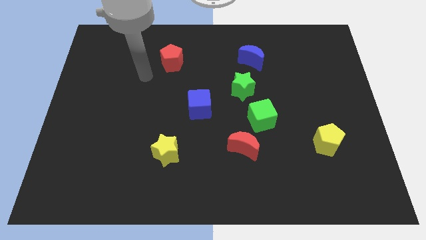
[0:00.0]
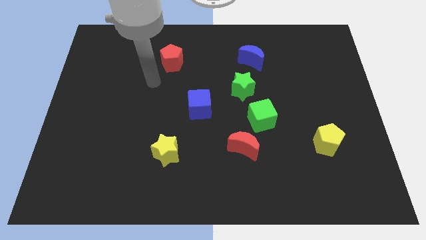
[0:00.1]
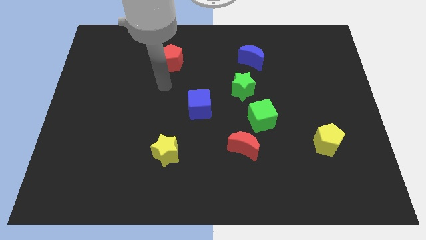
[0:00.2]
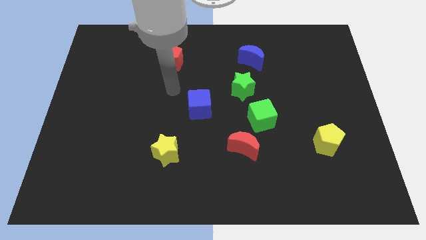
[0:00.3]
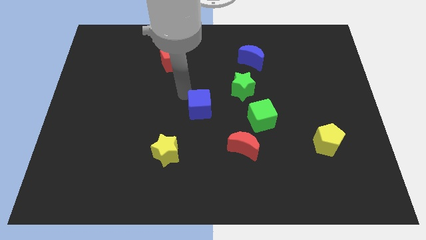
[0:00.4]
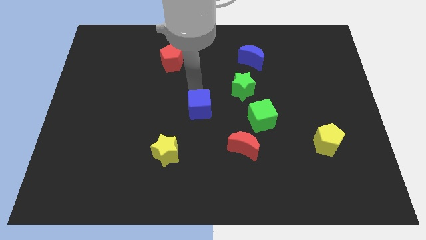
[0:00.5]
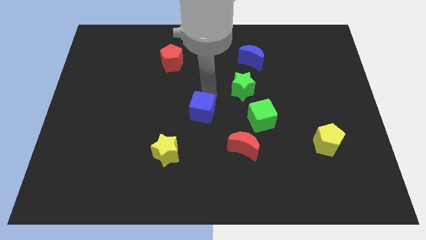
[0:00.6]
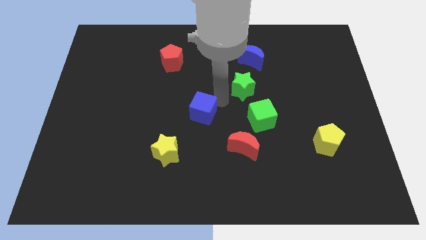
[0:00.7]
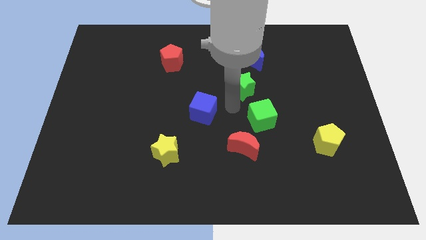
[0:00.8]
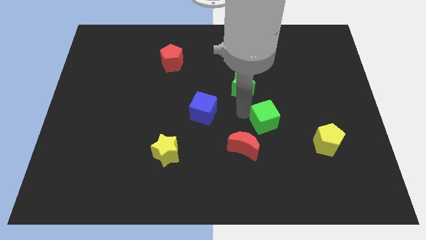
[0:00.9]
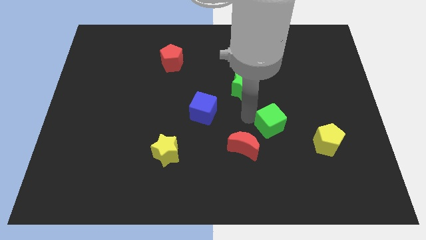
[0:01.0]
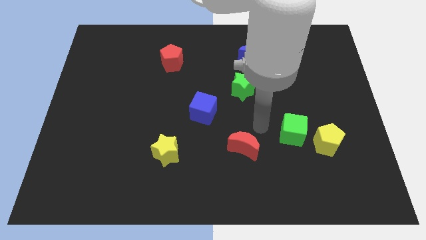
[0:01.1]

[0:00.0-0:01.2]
separate the red moon from the green cube

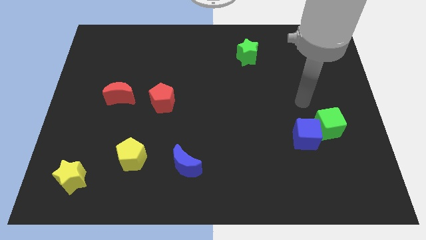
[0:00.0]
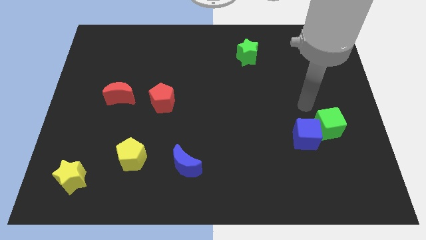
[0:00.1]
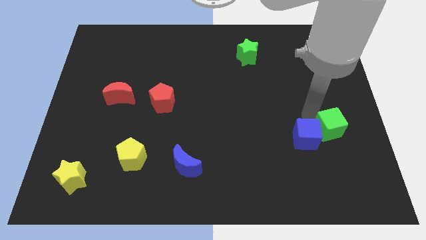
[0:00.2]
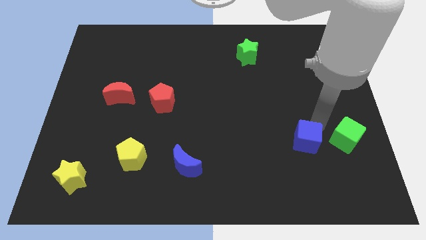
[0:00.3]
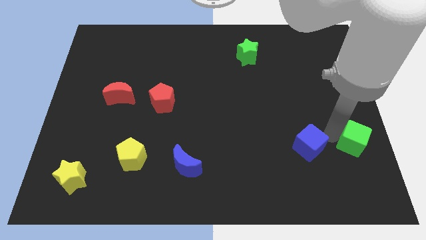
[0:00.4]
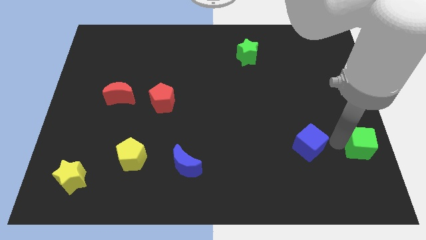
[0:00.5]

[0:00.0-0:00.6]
pull the blue cube apart from the green cube

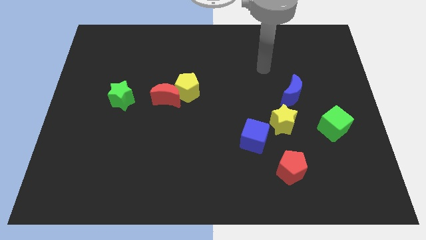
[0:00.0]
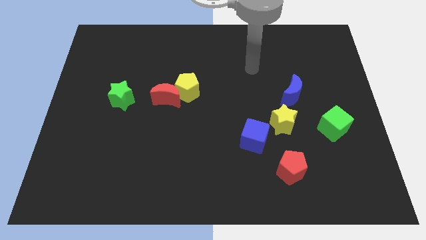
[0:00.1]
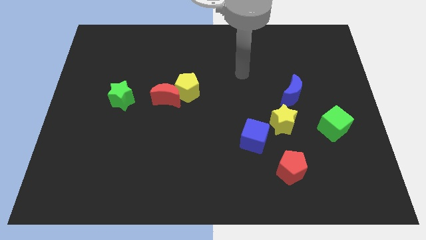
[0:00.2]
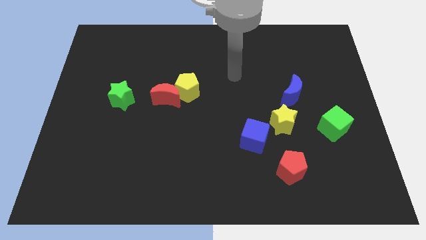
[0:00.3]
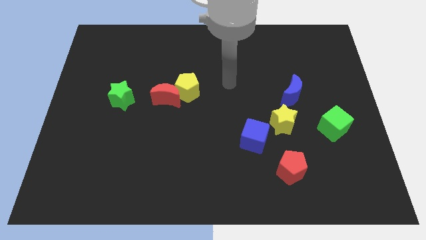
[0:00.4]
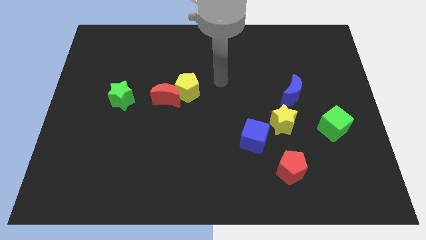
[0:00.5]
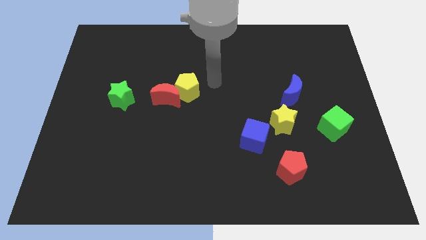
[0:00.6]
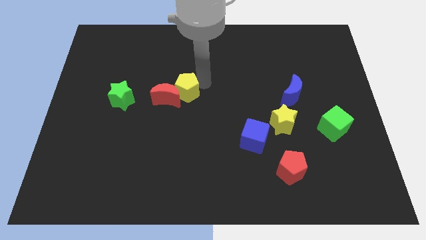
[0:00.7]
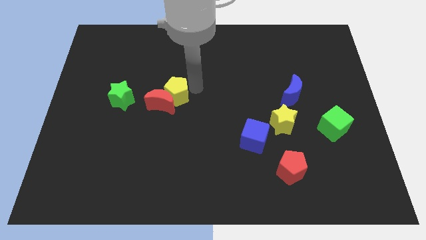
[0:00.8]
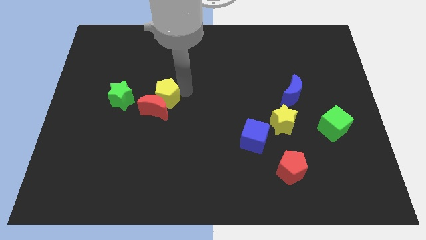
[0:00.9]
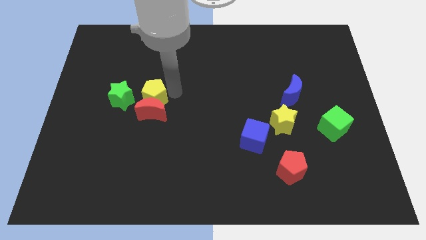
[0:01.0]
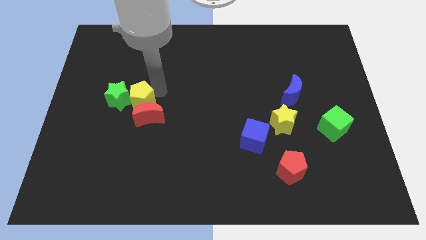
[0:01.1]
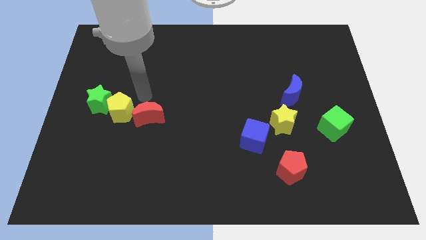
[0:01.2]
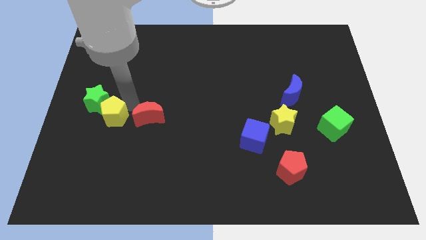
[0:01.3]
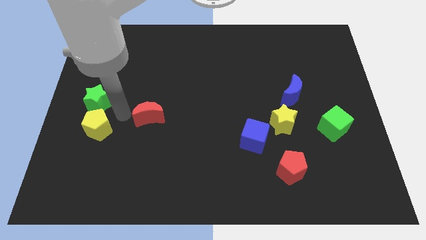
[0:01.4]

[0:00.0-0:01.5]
pull the red moon apart from the yellow pentagon

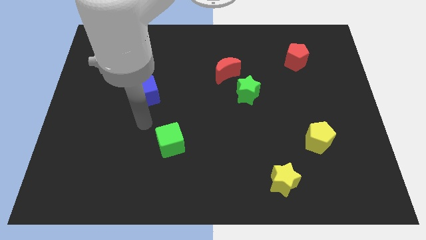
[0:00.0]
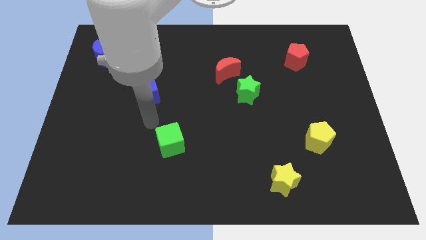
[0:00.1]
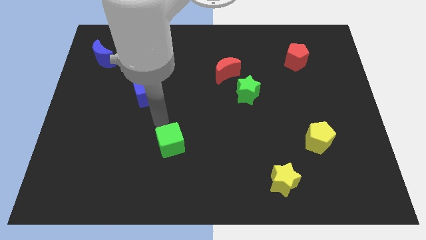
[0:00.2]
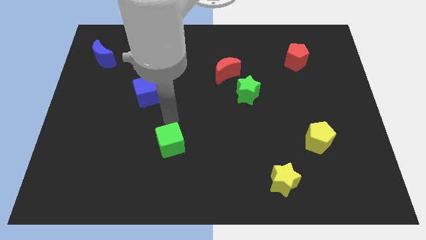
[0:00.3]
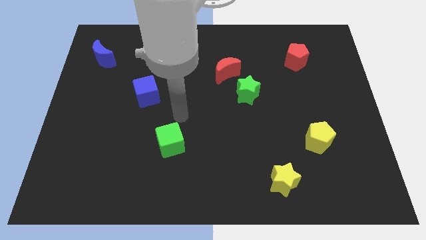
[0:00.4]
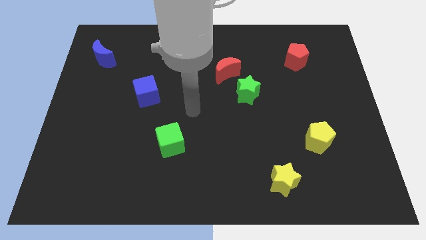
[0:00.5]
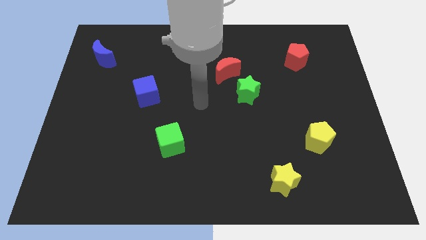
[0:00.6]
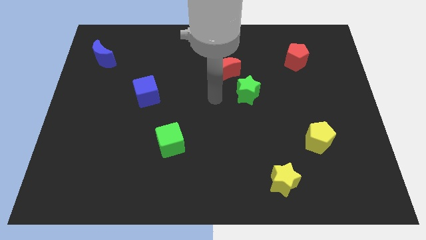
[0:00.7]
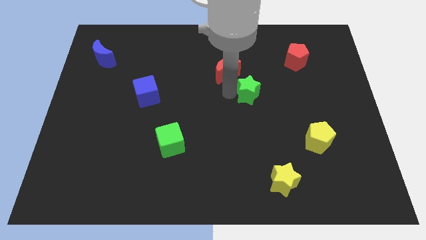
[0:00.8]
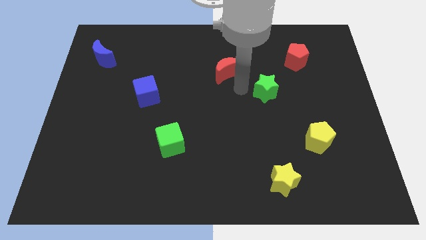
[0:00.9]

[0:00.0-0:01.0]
pull the red moon apart from the green star

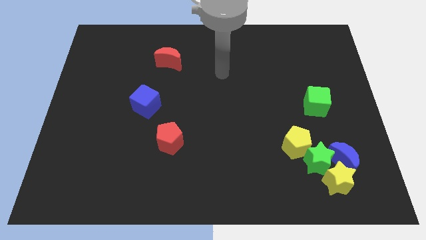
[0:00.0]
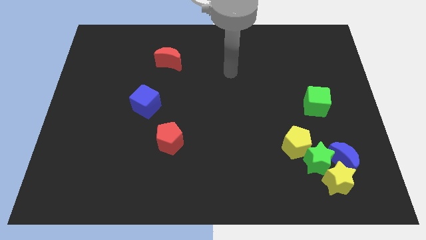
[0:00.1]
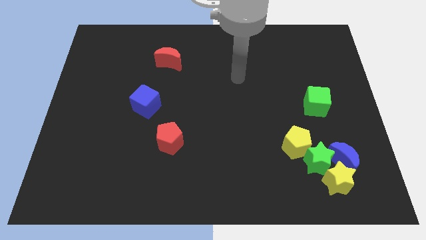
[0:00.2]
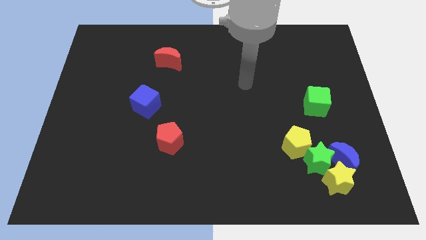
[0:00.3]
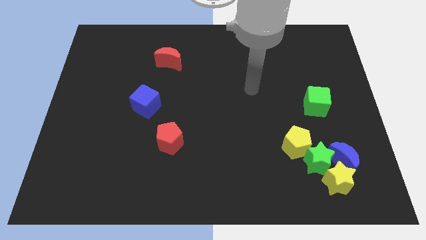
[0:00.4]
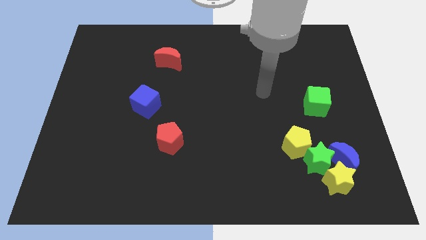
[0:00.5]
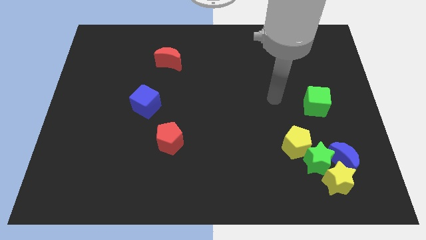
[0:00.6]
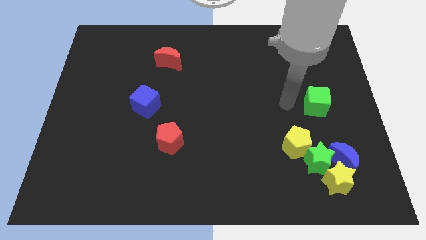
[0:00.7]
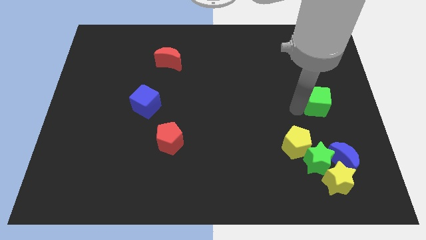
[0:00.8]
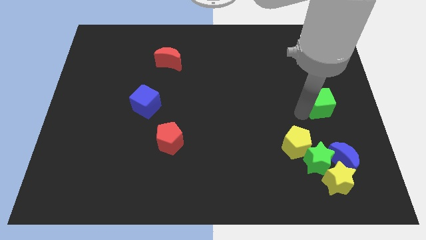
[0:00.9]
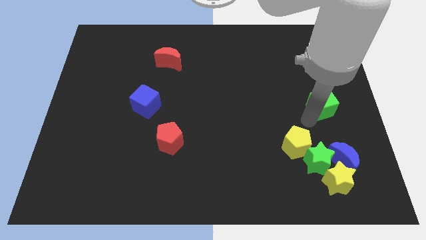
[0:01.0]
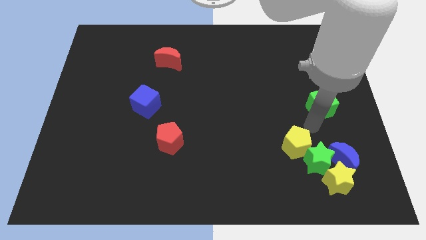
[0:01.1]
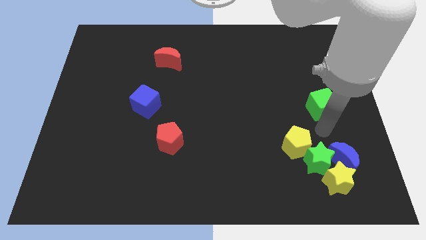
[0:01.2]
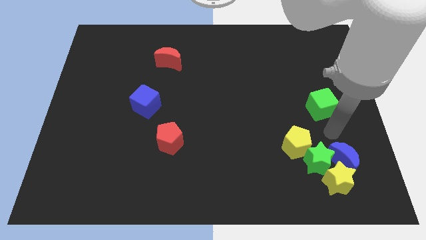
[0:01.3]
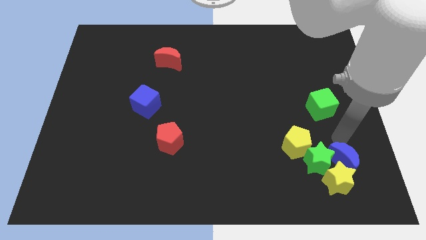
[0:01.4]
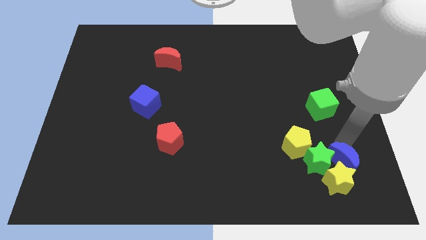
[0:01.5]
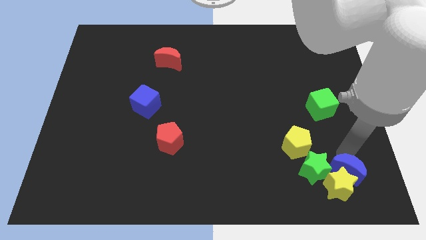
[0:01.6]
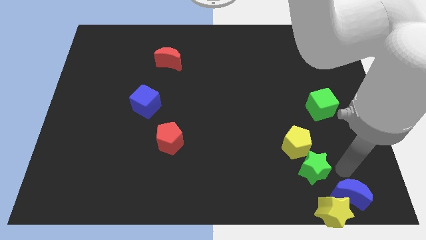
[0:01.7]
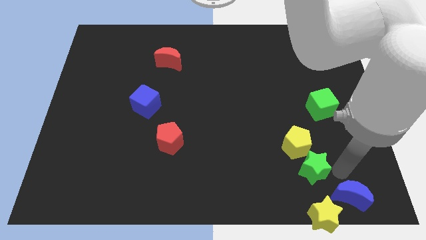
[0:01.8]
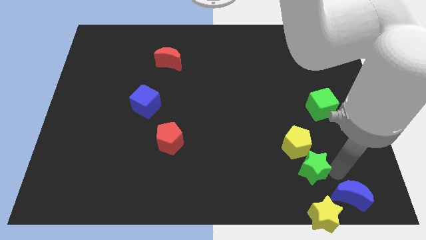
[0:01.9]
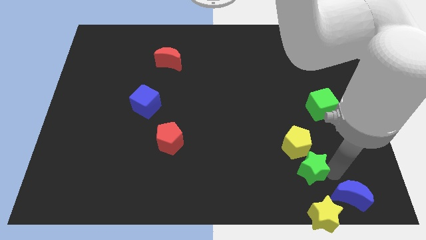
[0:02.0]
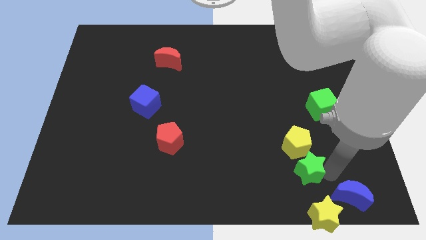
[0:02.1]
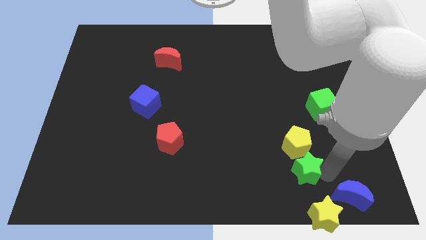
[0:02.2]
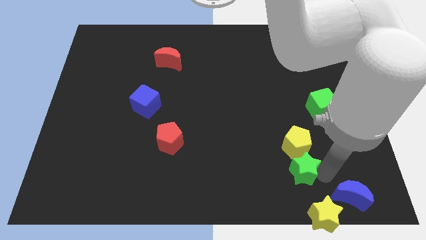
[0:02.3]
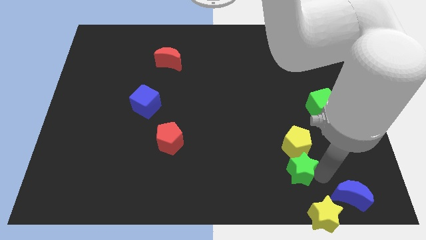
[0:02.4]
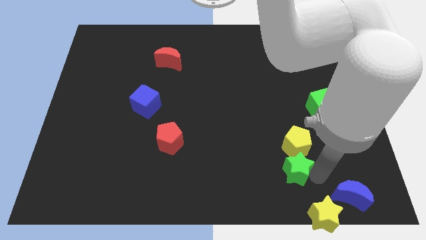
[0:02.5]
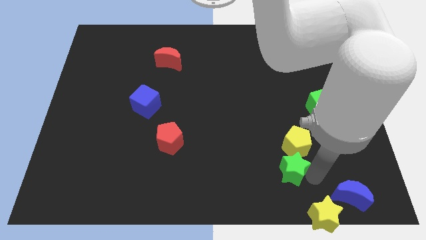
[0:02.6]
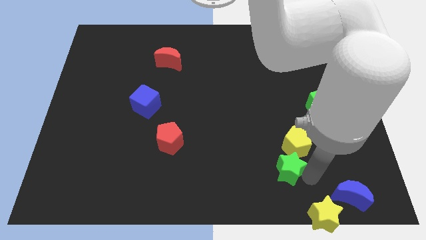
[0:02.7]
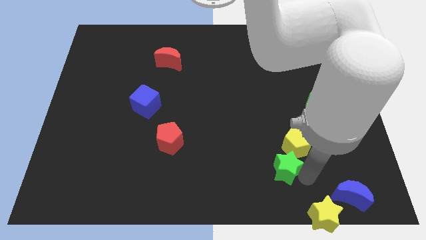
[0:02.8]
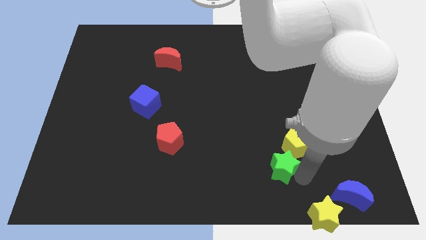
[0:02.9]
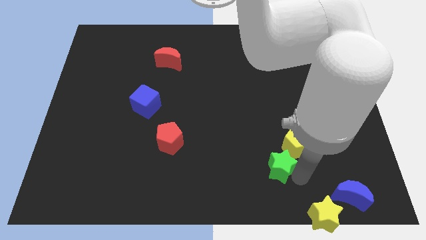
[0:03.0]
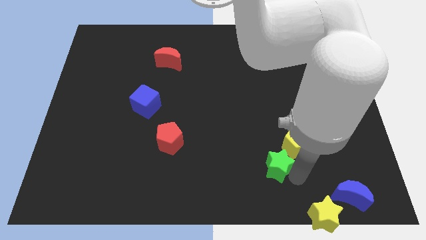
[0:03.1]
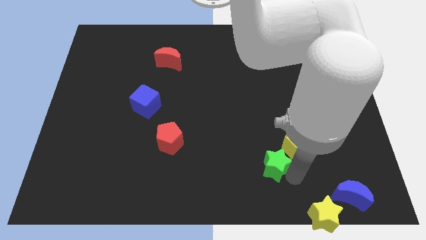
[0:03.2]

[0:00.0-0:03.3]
pull the green star apart from the yellow pentagon, blue moon, and yellow star

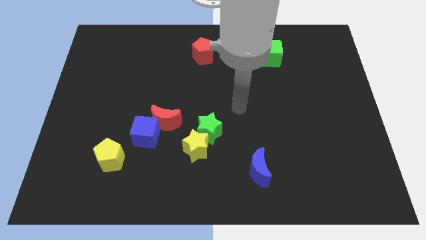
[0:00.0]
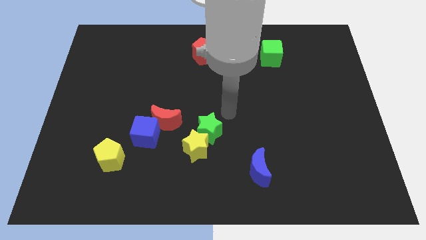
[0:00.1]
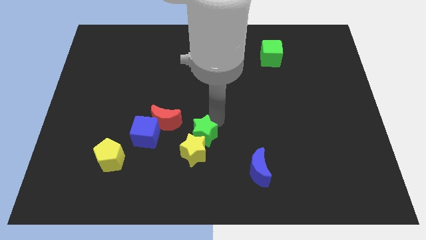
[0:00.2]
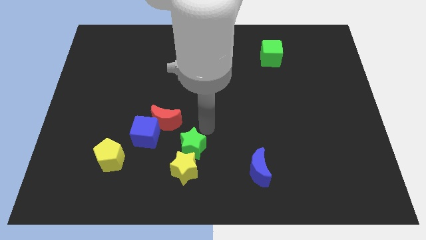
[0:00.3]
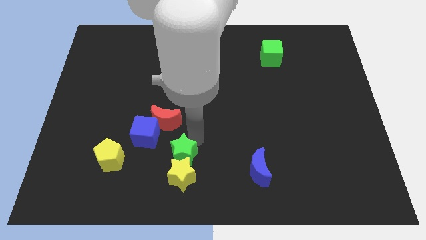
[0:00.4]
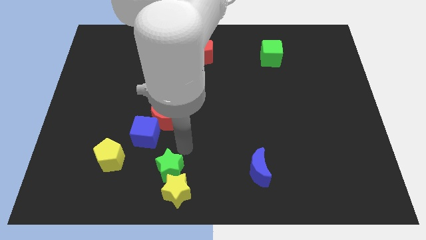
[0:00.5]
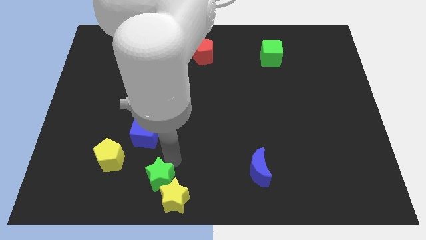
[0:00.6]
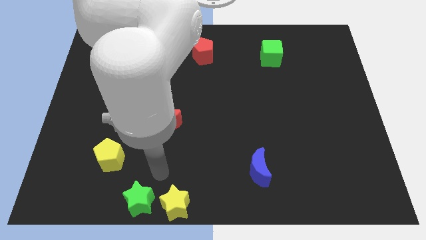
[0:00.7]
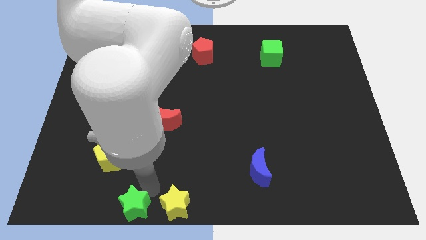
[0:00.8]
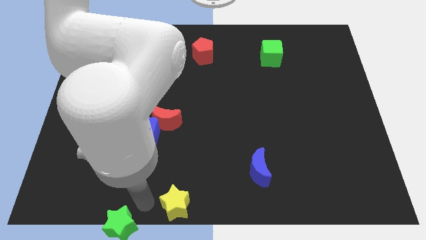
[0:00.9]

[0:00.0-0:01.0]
separate the yellow star from the green star

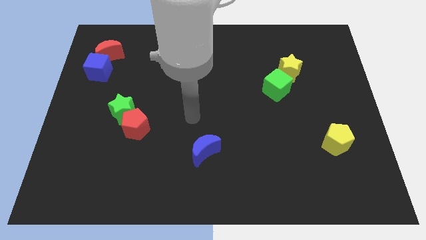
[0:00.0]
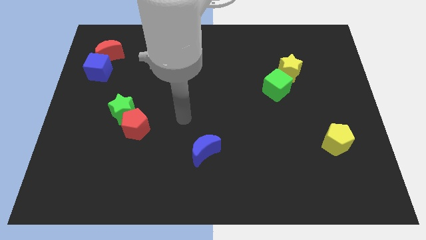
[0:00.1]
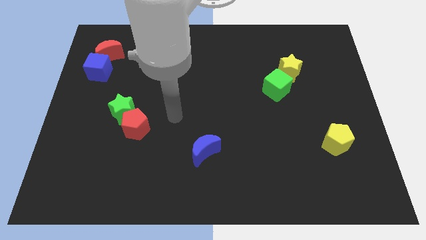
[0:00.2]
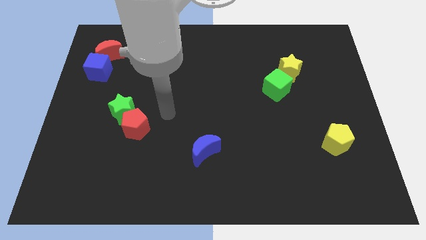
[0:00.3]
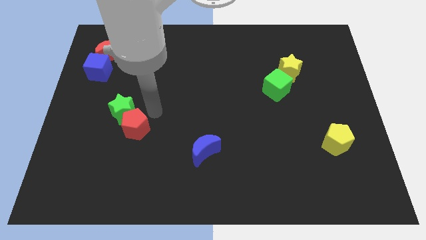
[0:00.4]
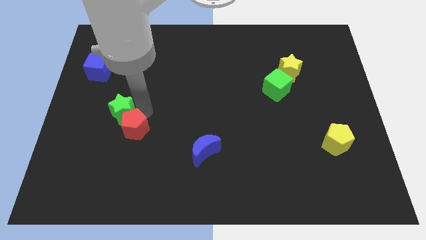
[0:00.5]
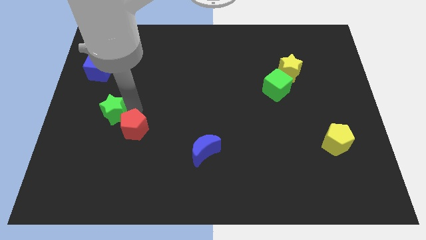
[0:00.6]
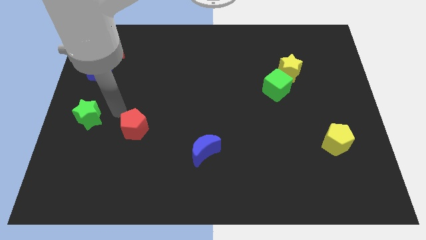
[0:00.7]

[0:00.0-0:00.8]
separate the red pentagon from the green star
